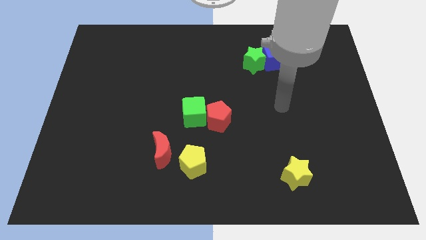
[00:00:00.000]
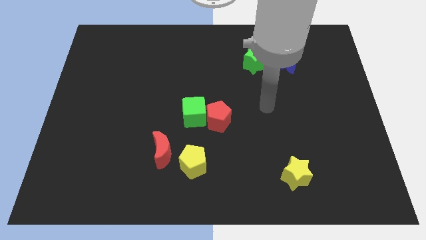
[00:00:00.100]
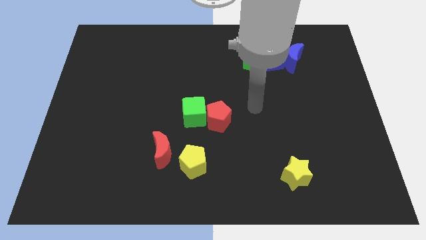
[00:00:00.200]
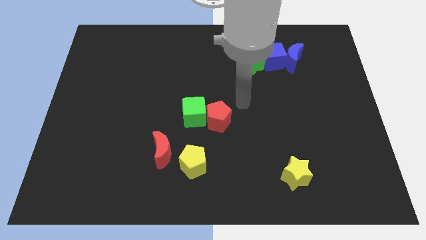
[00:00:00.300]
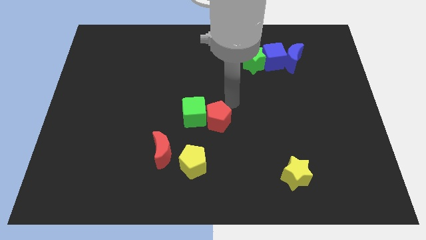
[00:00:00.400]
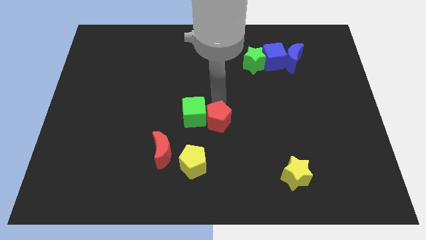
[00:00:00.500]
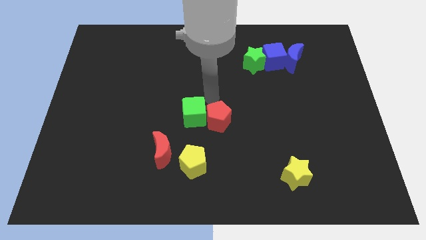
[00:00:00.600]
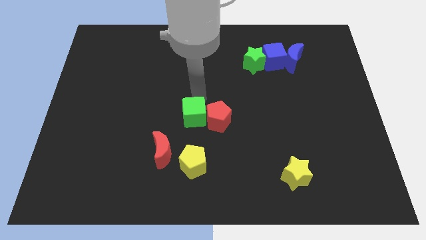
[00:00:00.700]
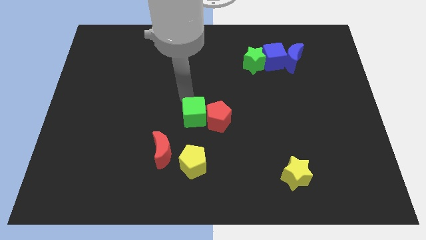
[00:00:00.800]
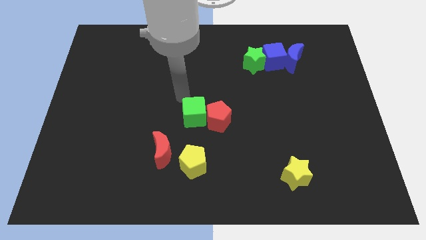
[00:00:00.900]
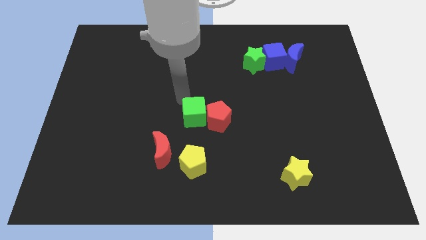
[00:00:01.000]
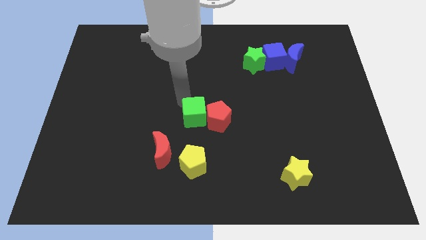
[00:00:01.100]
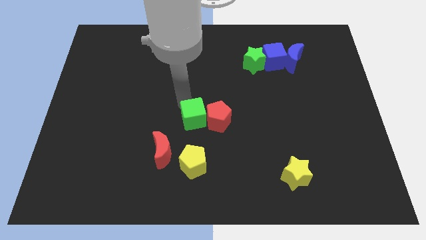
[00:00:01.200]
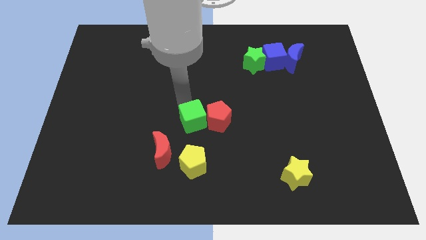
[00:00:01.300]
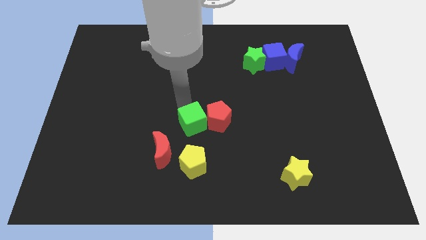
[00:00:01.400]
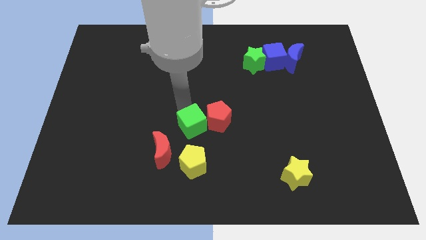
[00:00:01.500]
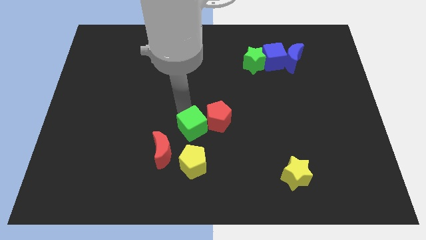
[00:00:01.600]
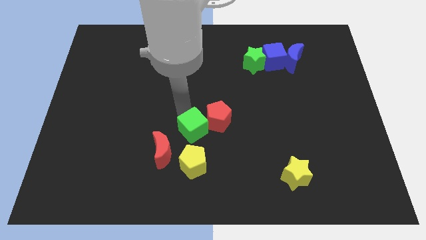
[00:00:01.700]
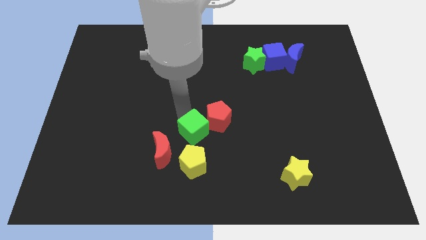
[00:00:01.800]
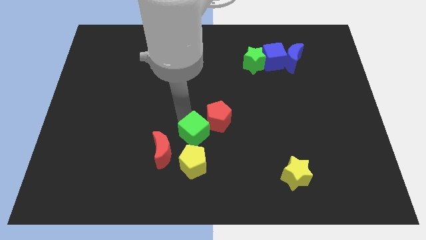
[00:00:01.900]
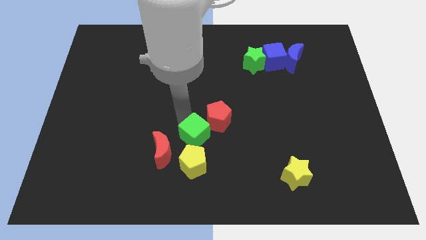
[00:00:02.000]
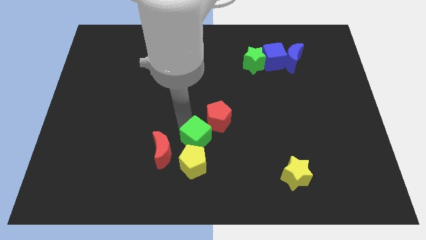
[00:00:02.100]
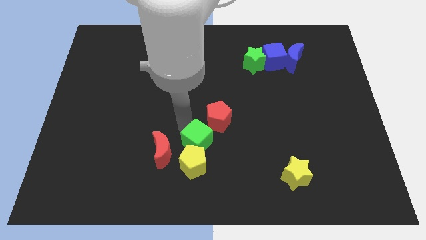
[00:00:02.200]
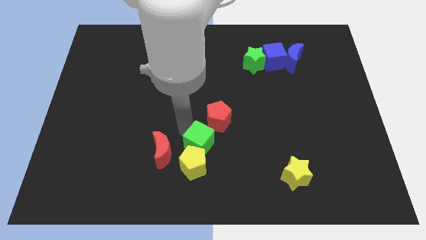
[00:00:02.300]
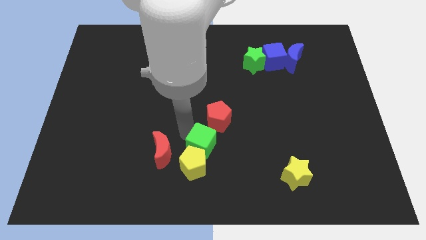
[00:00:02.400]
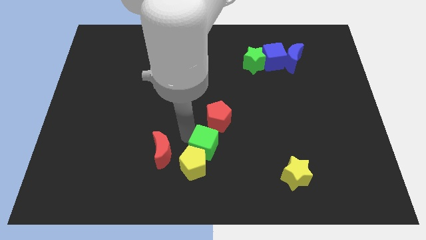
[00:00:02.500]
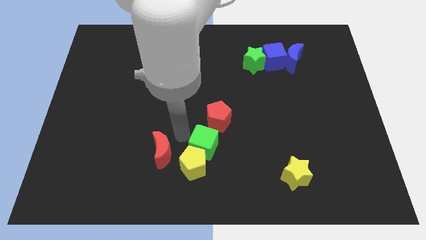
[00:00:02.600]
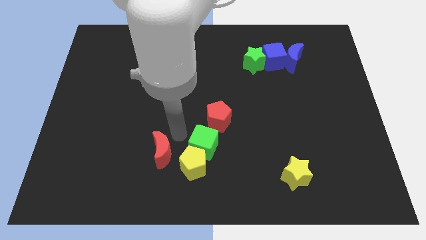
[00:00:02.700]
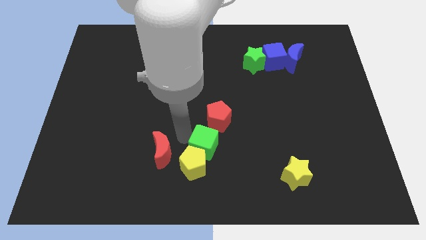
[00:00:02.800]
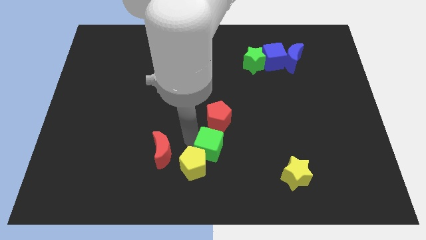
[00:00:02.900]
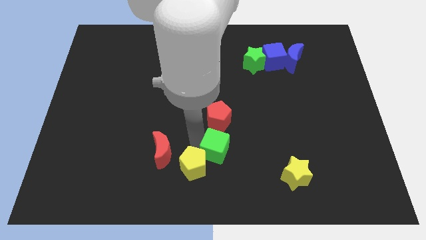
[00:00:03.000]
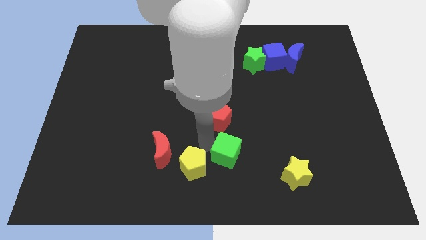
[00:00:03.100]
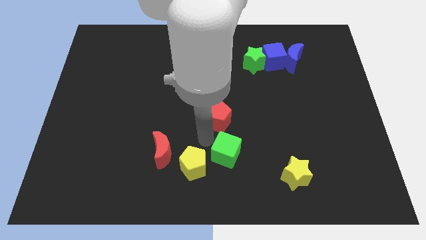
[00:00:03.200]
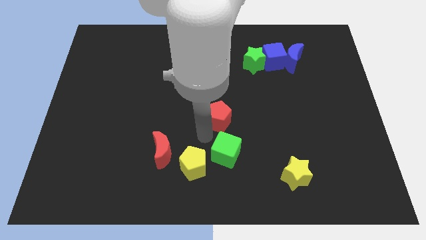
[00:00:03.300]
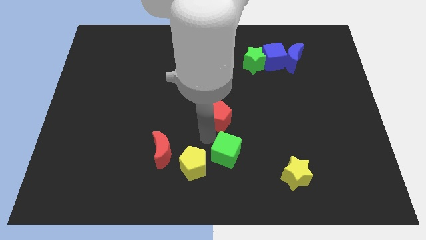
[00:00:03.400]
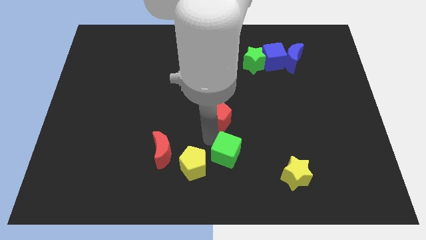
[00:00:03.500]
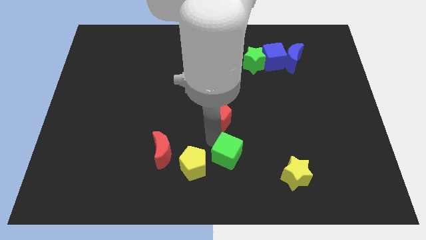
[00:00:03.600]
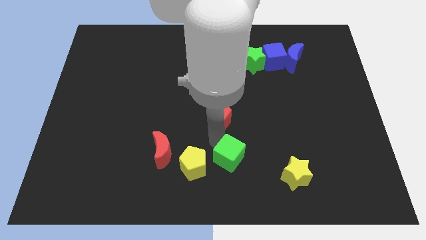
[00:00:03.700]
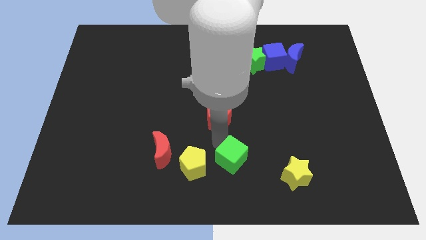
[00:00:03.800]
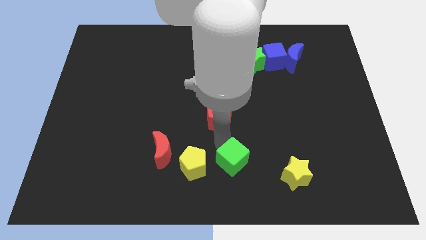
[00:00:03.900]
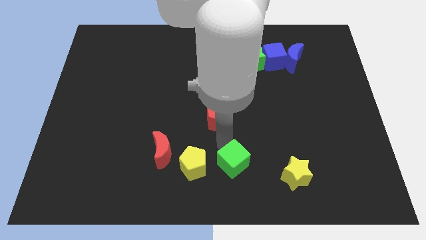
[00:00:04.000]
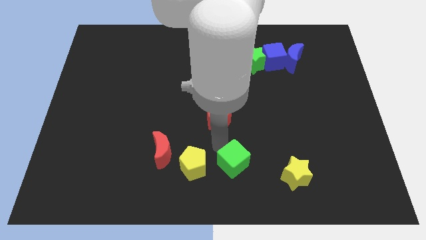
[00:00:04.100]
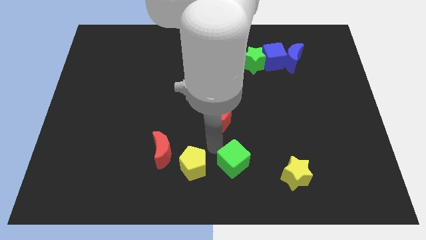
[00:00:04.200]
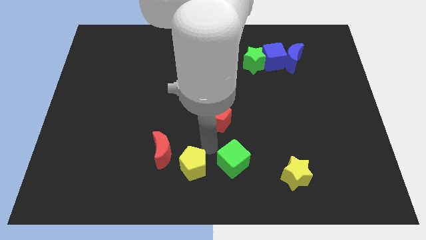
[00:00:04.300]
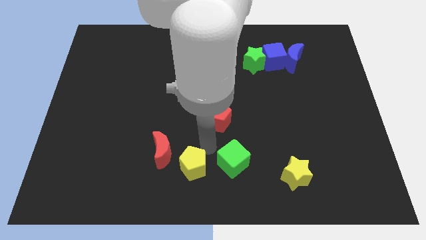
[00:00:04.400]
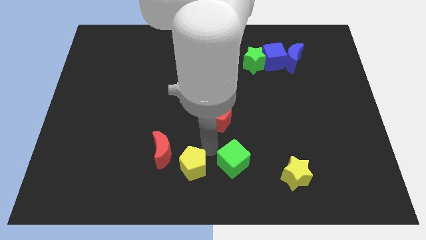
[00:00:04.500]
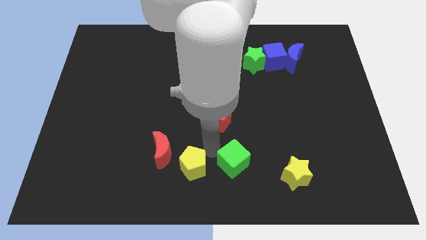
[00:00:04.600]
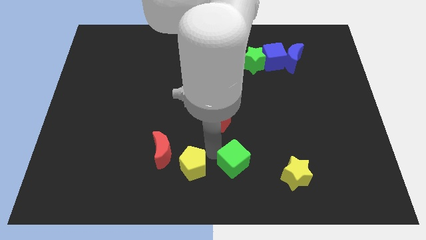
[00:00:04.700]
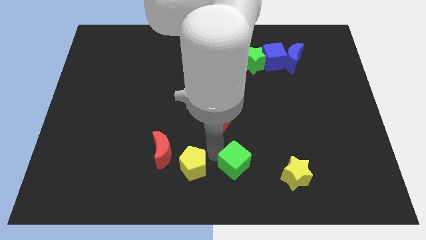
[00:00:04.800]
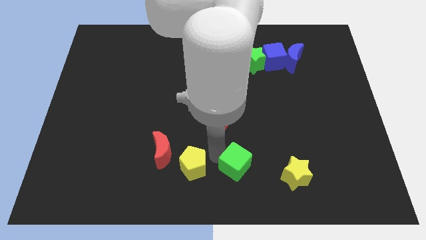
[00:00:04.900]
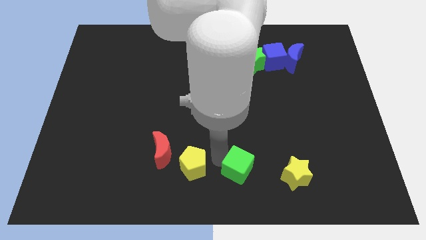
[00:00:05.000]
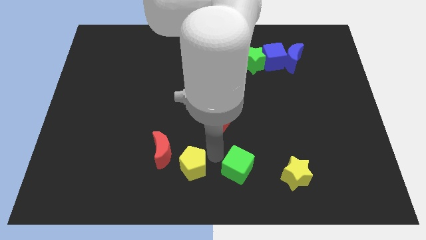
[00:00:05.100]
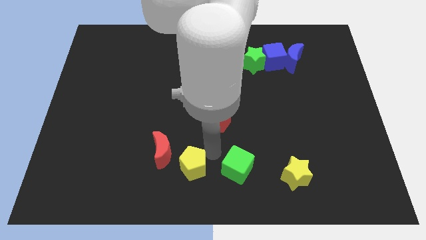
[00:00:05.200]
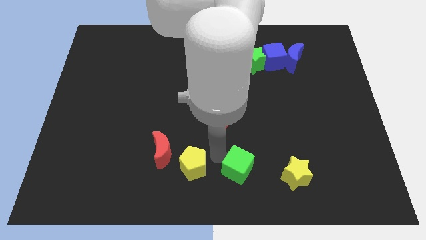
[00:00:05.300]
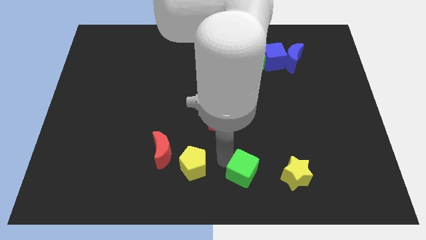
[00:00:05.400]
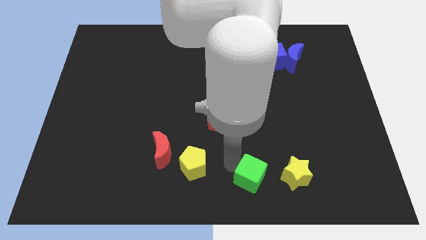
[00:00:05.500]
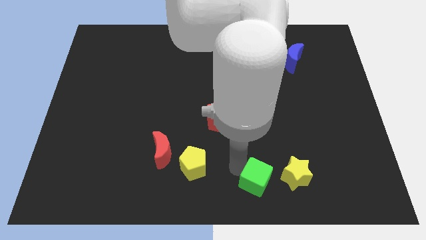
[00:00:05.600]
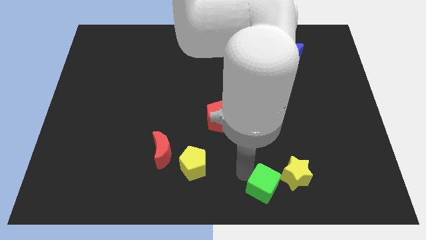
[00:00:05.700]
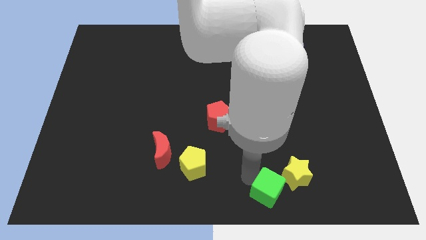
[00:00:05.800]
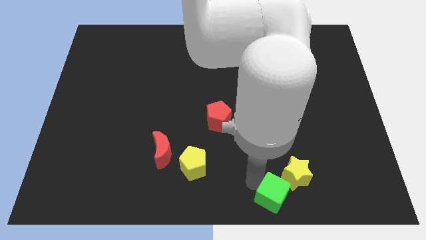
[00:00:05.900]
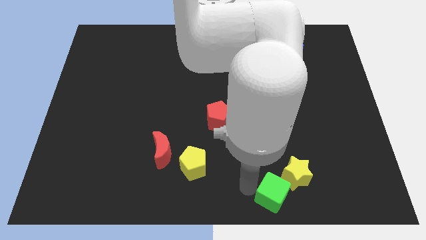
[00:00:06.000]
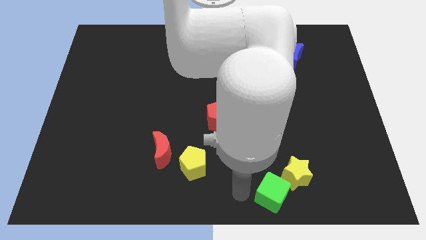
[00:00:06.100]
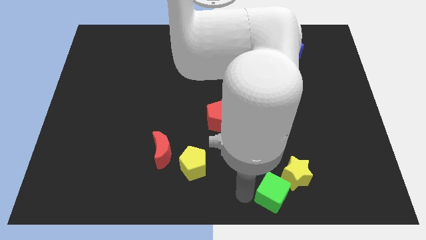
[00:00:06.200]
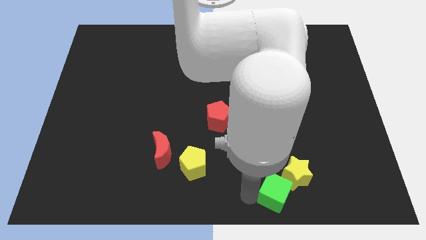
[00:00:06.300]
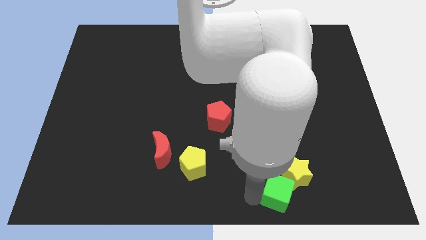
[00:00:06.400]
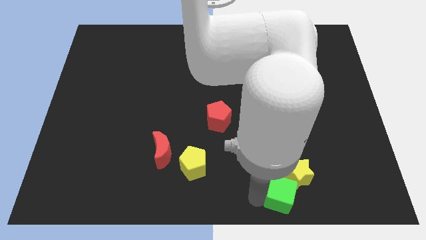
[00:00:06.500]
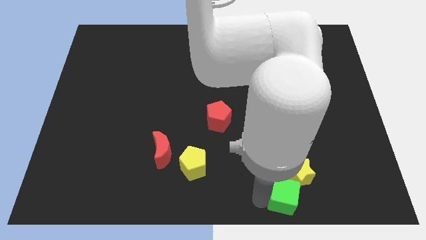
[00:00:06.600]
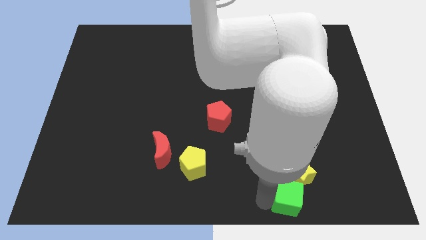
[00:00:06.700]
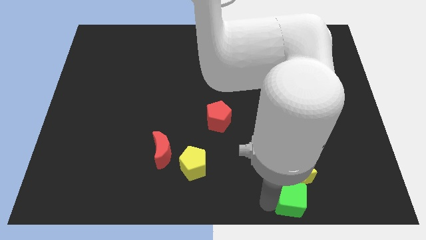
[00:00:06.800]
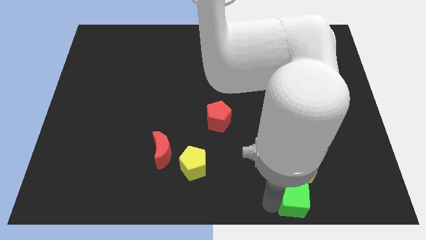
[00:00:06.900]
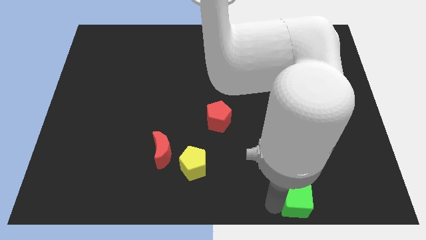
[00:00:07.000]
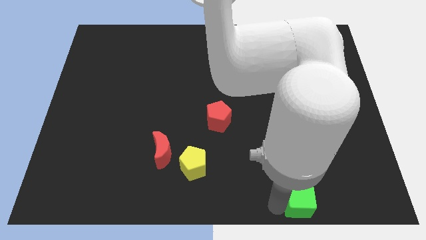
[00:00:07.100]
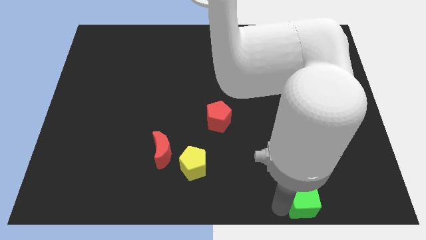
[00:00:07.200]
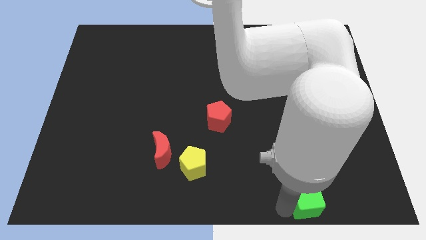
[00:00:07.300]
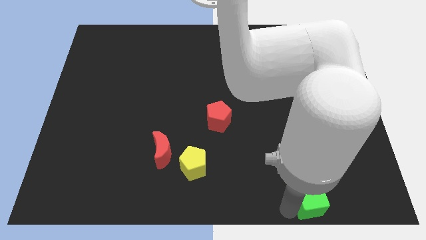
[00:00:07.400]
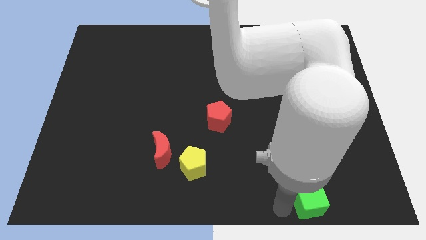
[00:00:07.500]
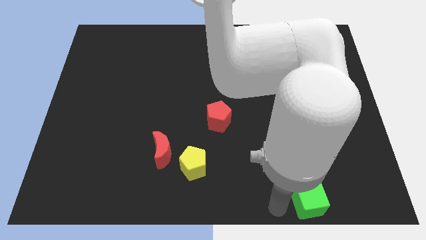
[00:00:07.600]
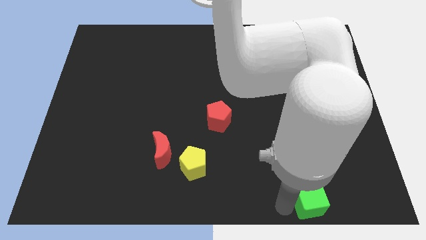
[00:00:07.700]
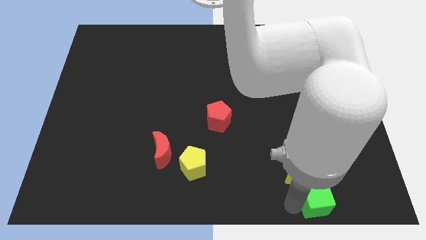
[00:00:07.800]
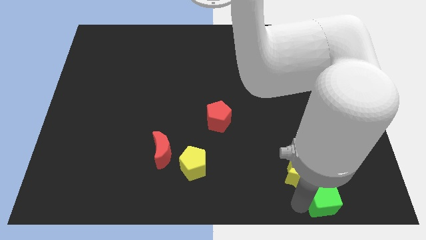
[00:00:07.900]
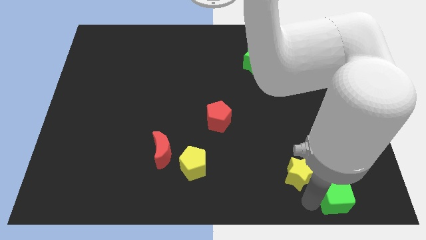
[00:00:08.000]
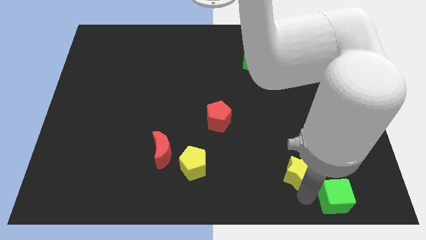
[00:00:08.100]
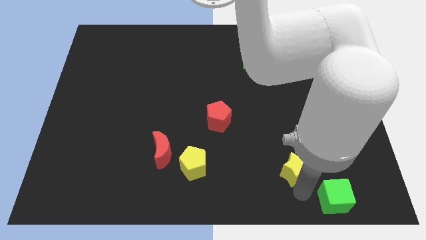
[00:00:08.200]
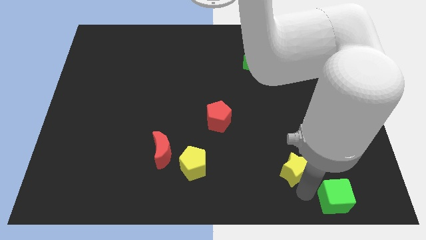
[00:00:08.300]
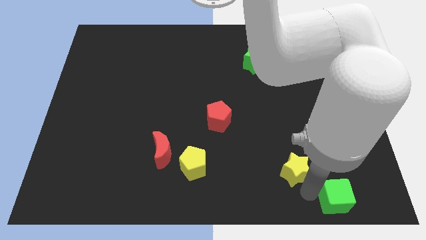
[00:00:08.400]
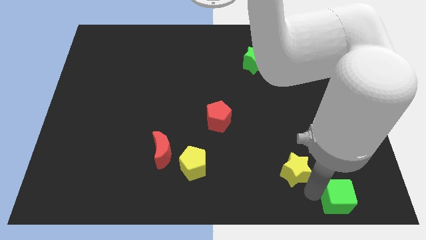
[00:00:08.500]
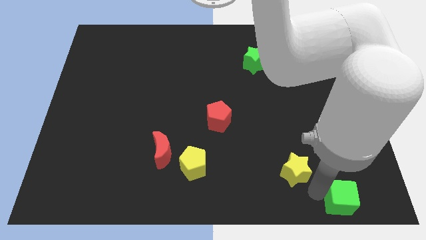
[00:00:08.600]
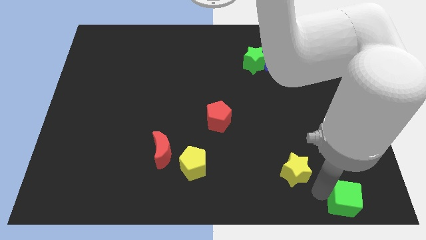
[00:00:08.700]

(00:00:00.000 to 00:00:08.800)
put the green cube to the lower right corner
